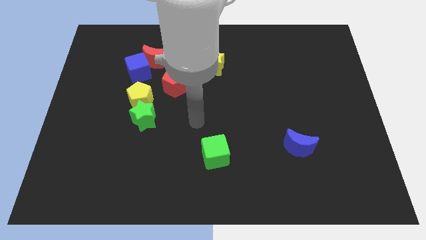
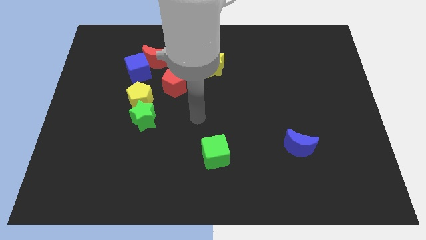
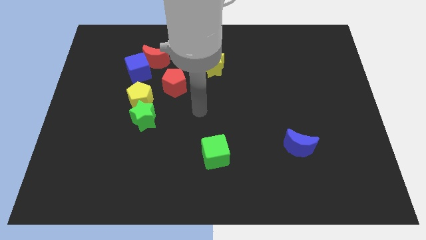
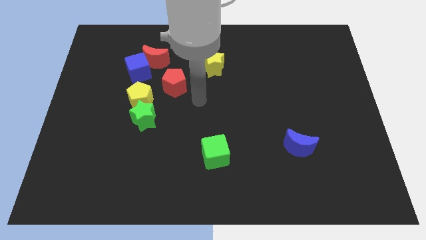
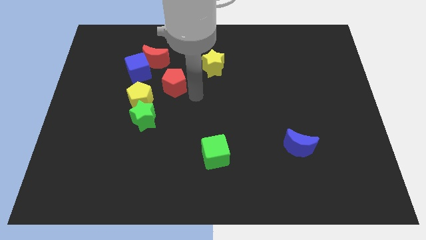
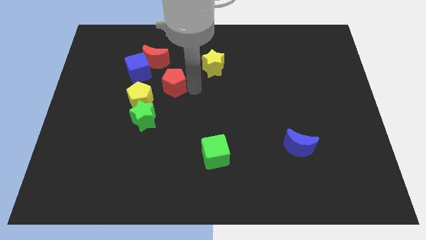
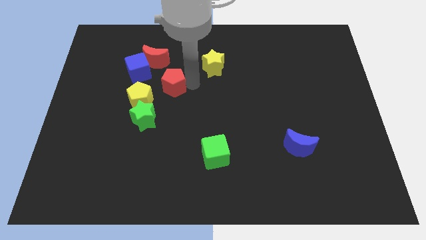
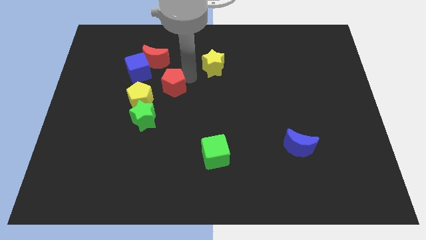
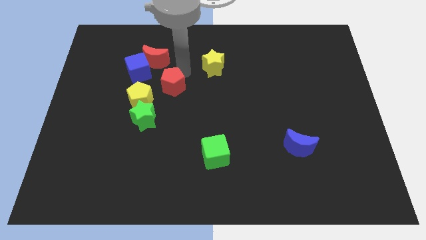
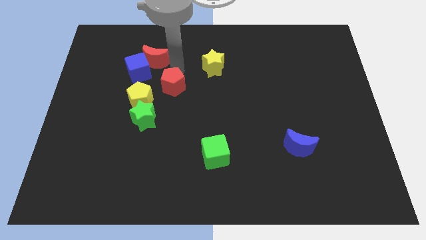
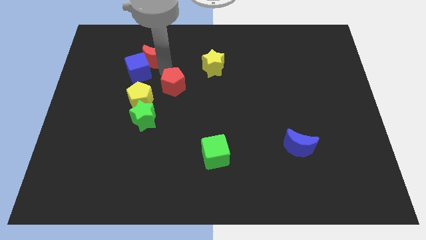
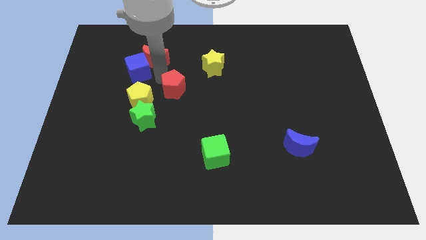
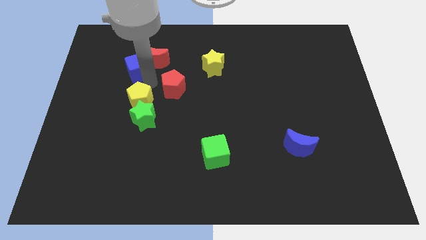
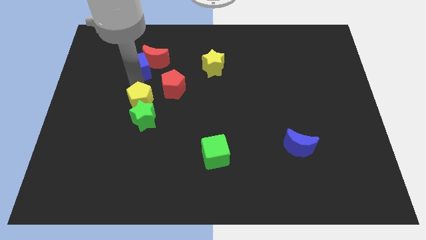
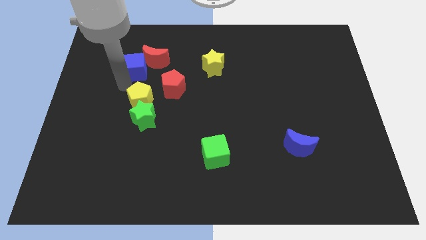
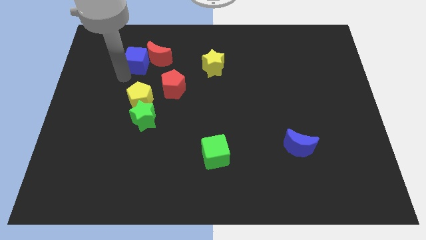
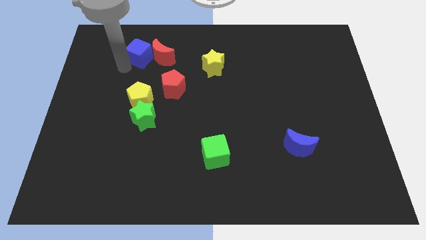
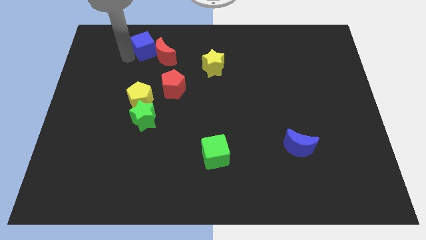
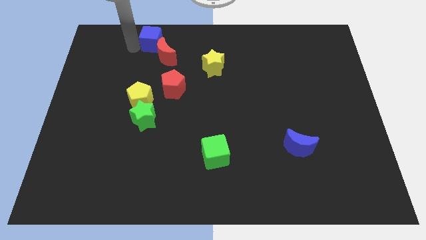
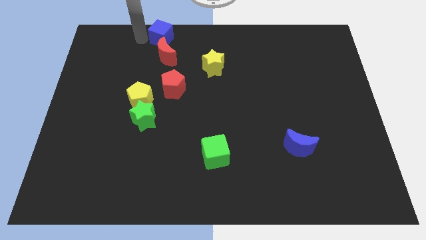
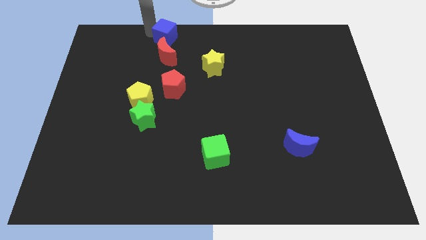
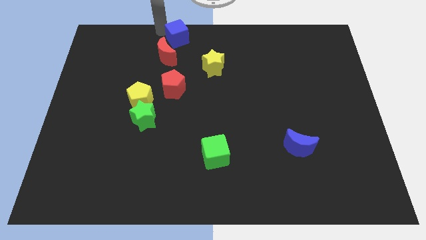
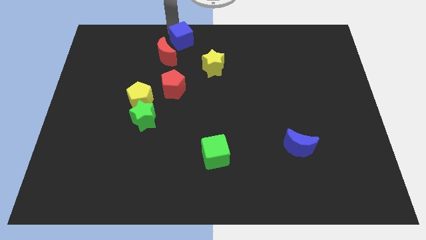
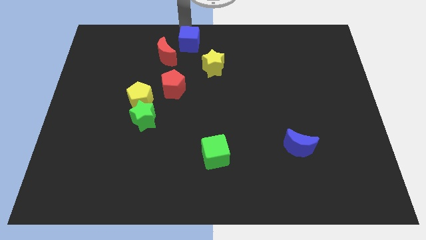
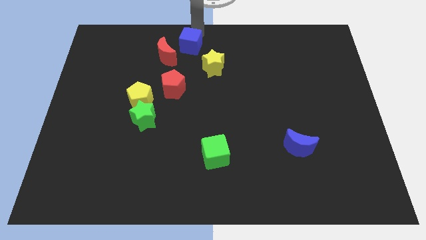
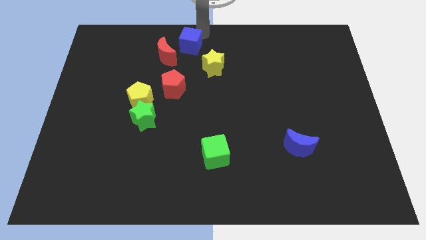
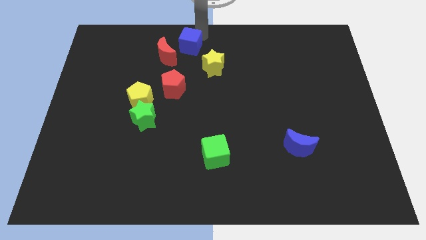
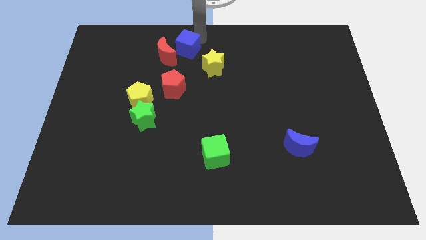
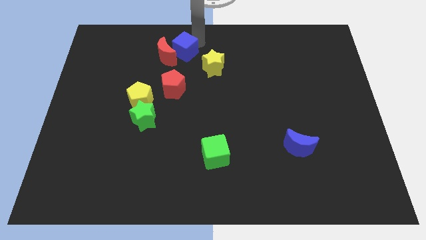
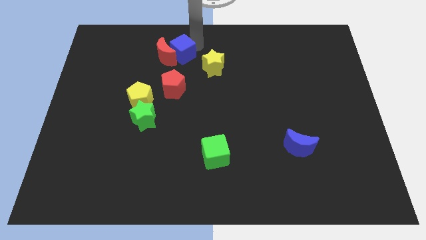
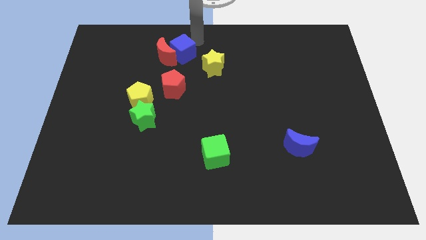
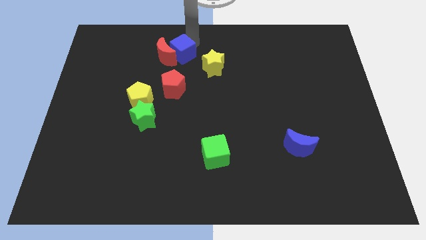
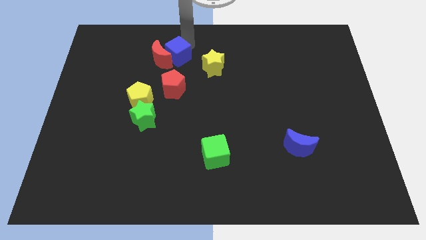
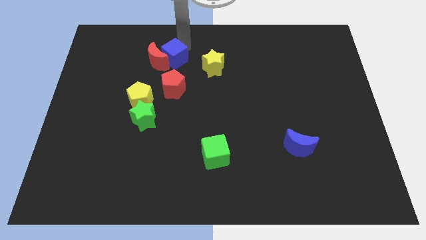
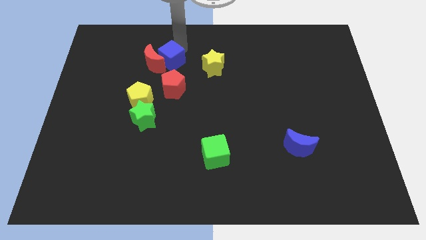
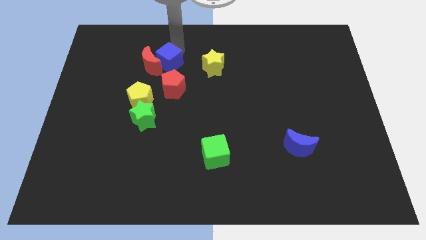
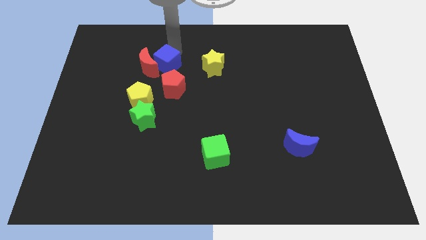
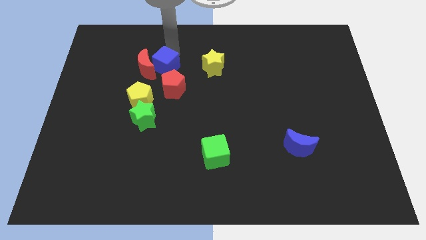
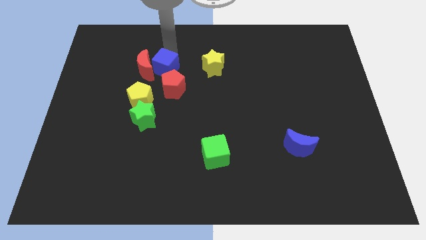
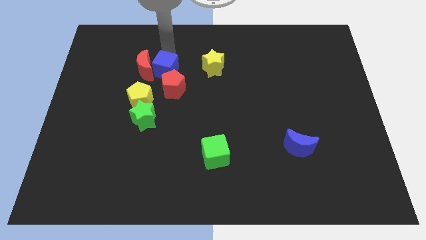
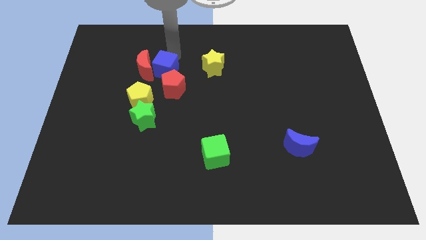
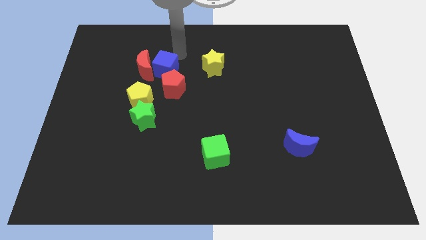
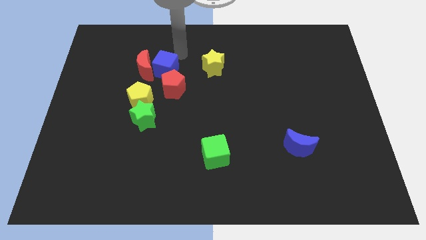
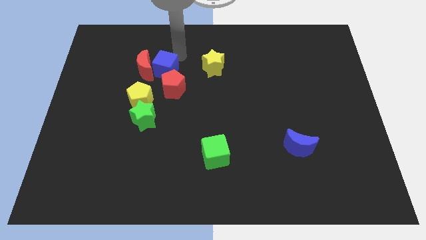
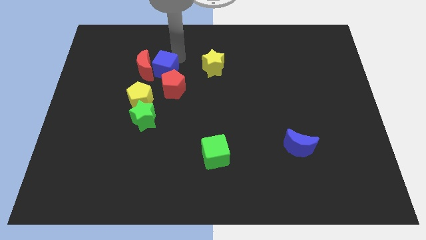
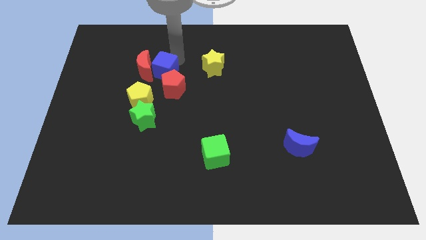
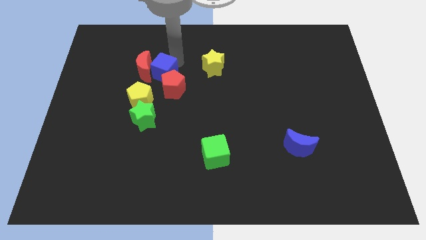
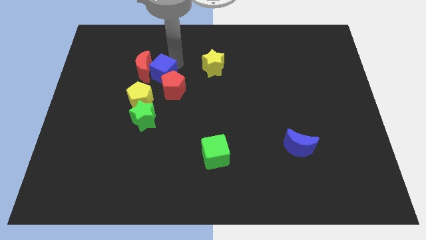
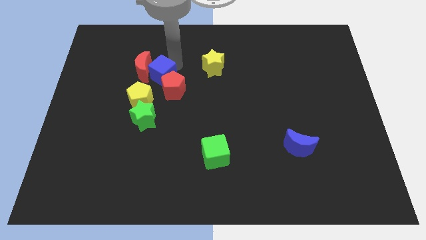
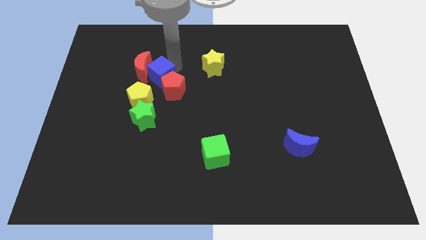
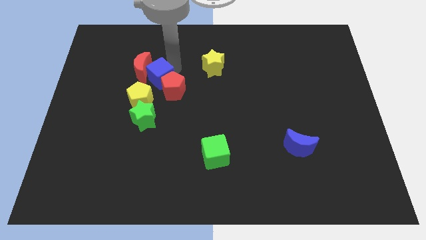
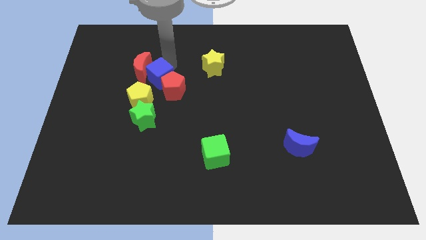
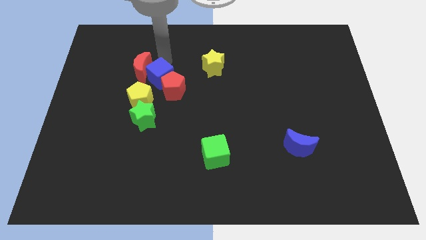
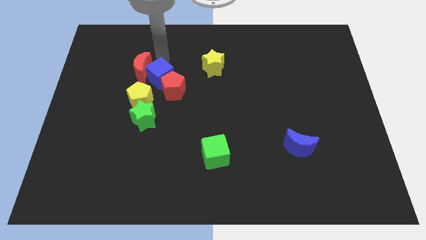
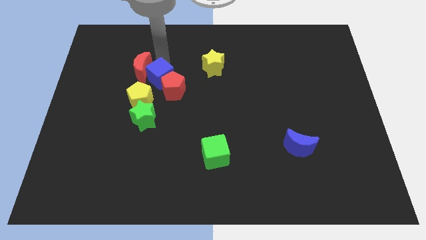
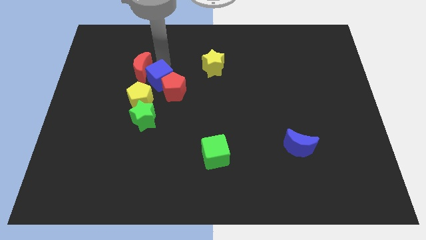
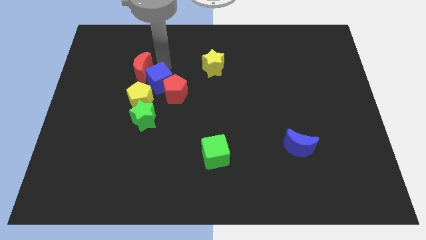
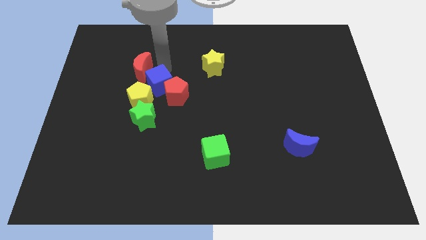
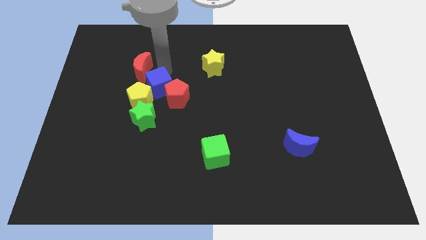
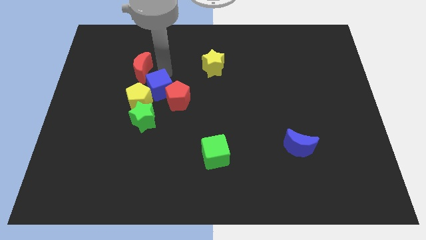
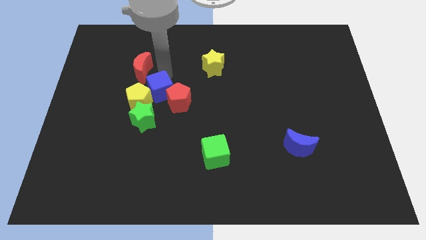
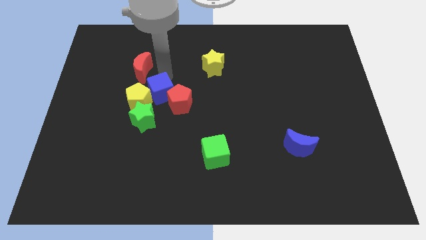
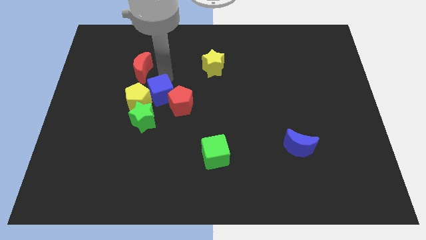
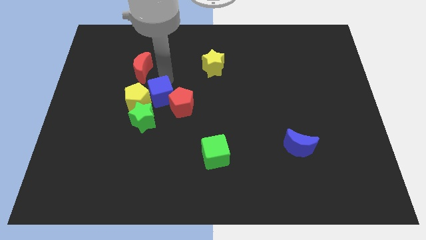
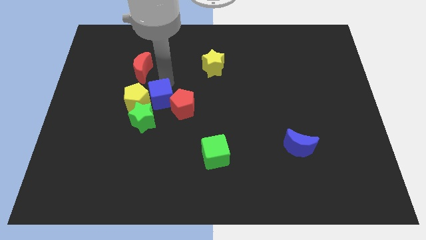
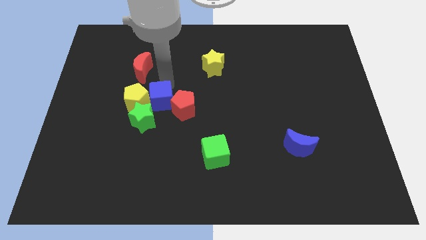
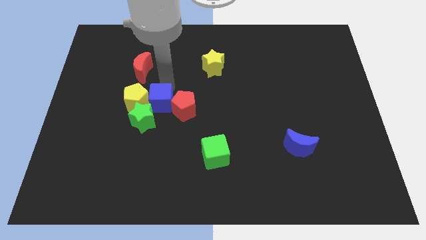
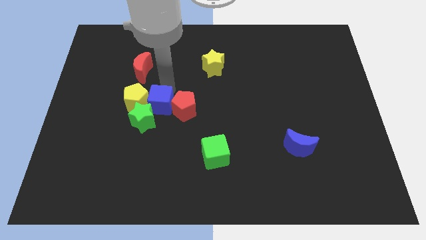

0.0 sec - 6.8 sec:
slide the blue cube to the green star

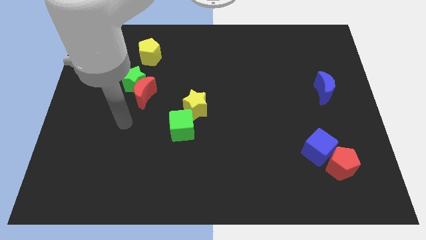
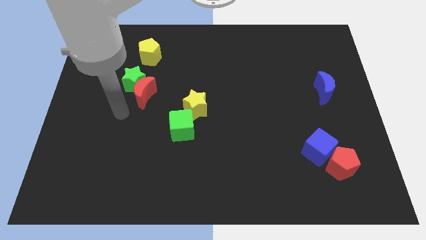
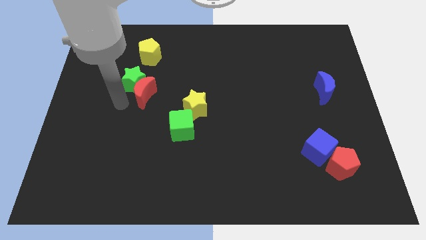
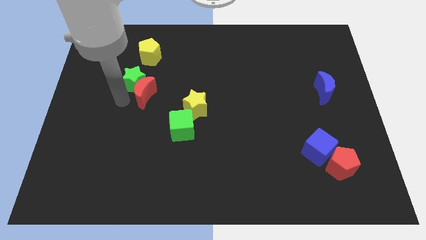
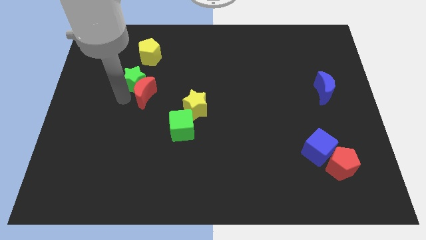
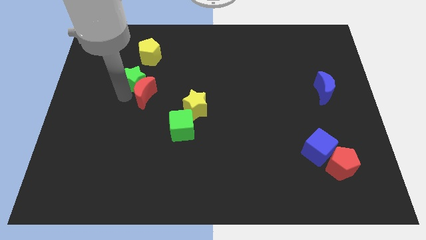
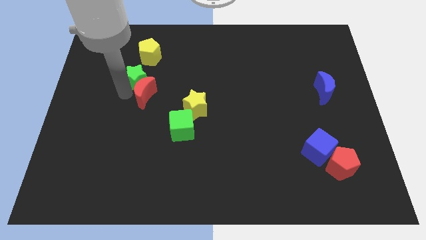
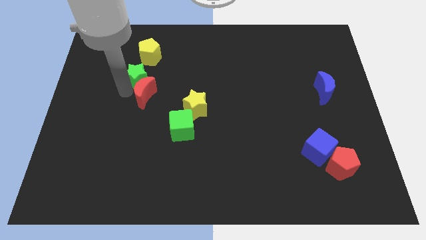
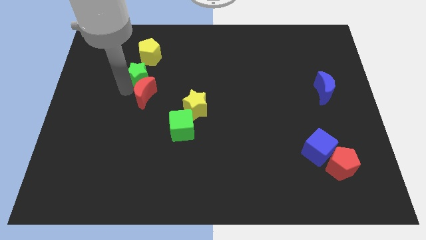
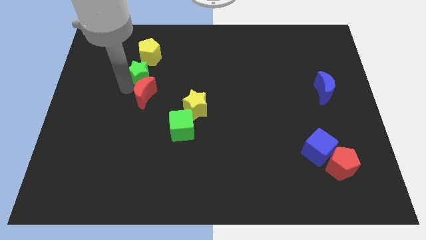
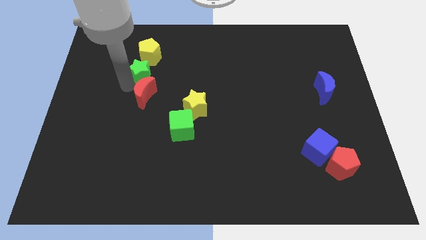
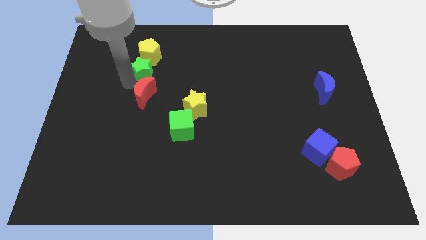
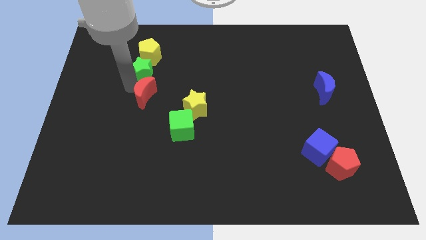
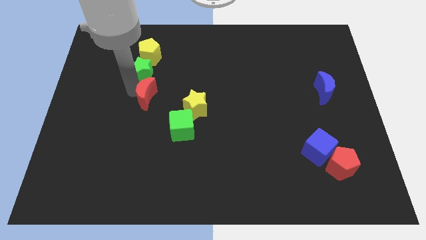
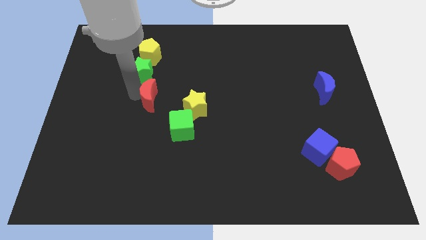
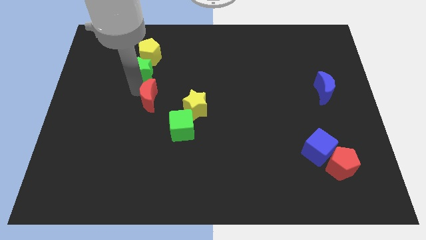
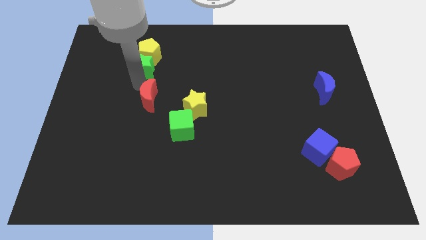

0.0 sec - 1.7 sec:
move the green star towards the yellow pentagon
